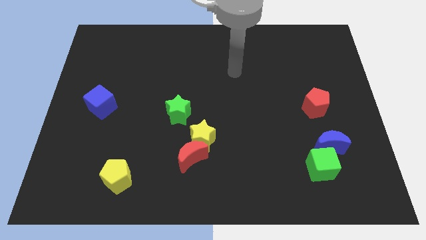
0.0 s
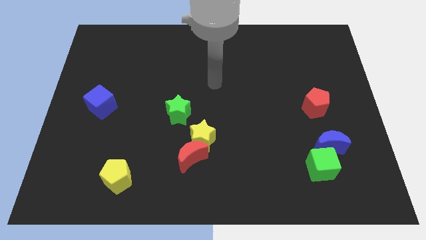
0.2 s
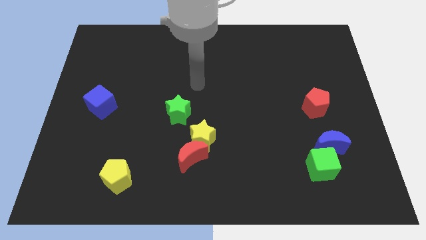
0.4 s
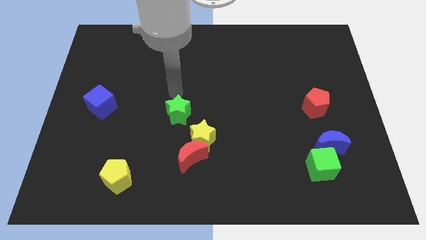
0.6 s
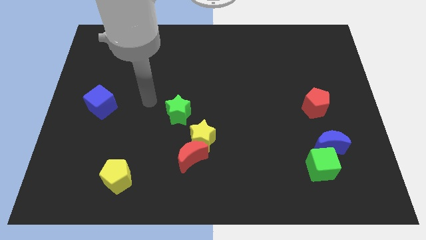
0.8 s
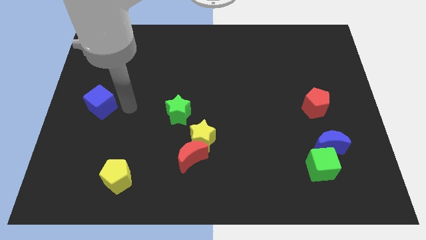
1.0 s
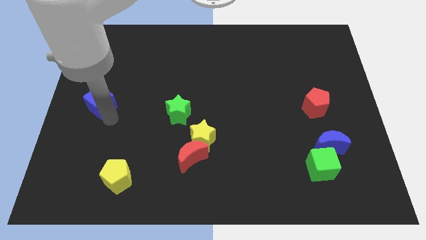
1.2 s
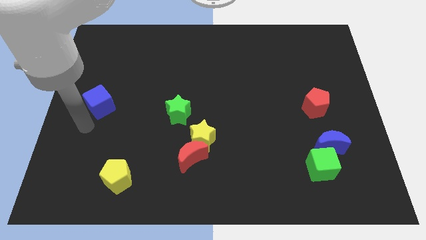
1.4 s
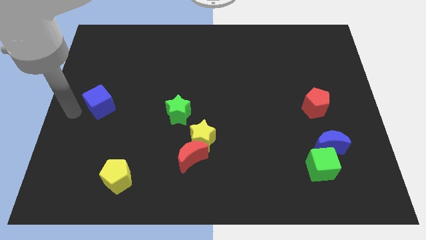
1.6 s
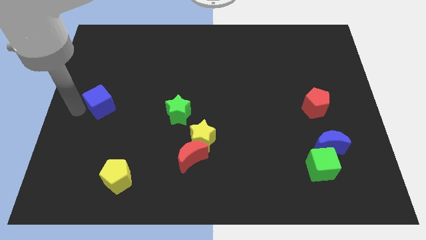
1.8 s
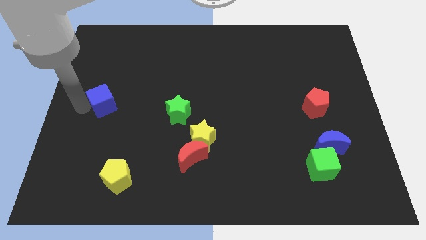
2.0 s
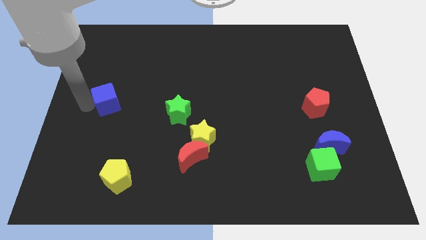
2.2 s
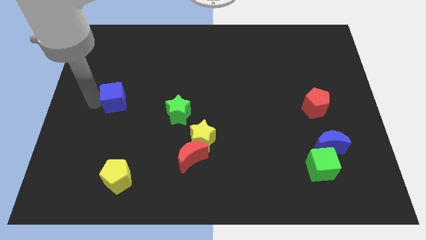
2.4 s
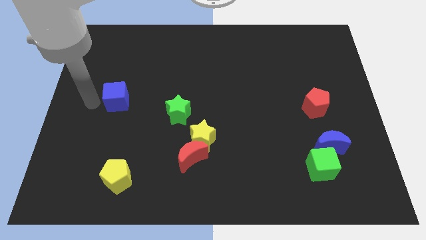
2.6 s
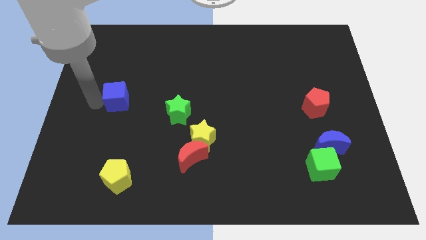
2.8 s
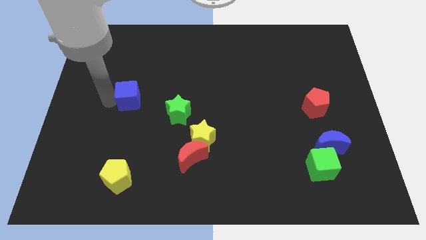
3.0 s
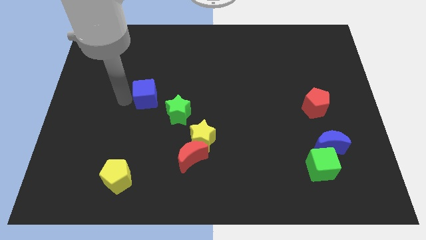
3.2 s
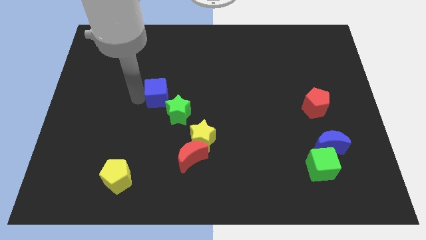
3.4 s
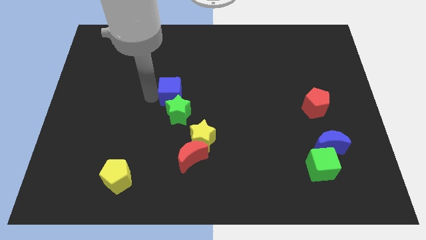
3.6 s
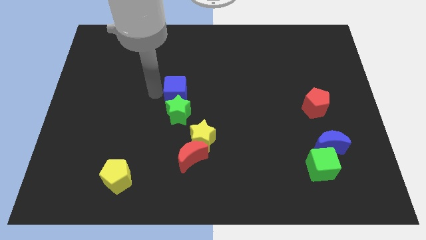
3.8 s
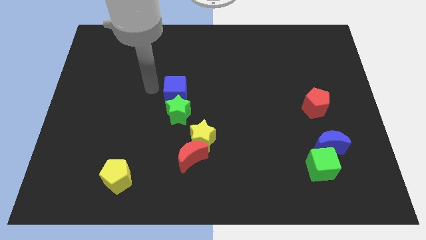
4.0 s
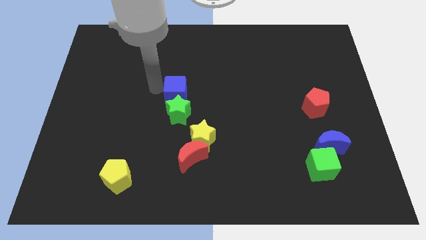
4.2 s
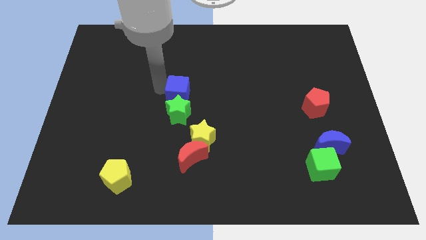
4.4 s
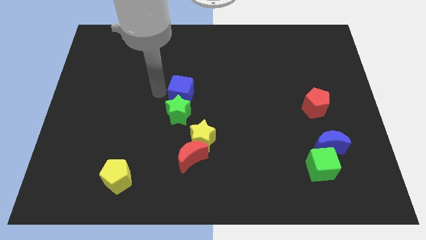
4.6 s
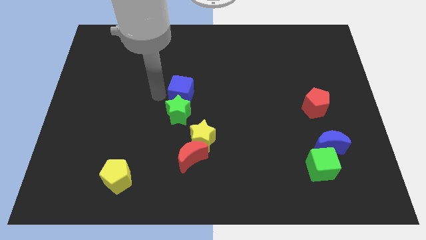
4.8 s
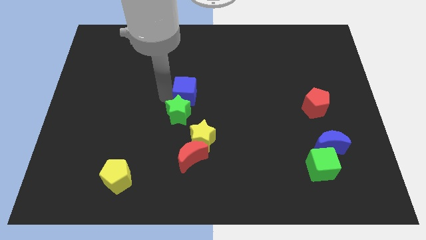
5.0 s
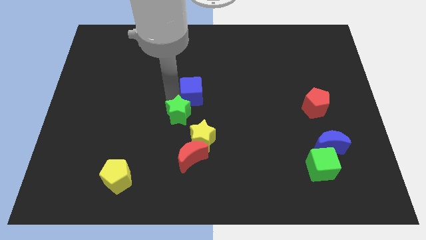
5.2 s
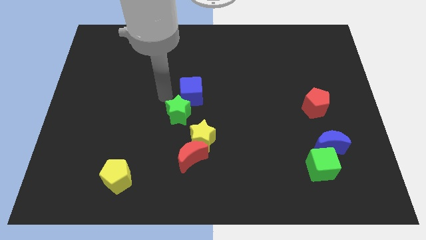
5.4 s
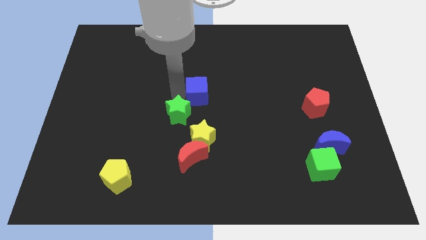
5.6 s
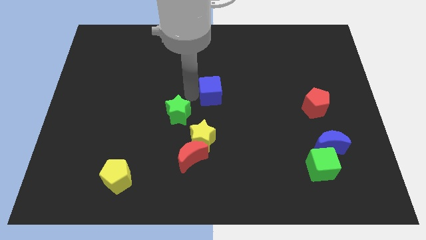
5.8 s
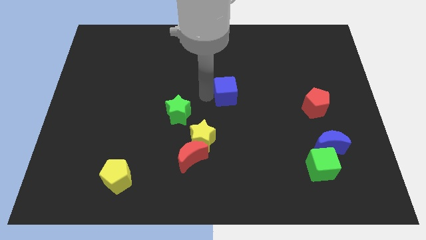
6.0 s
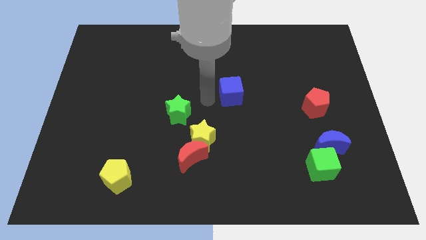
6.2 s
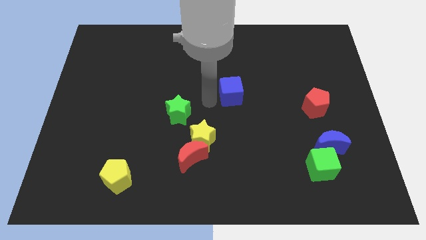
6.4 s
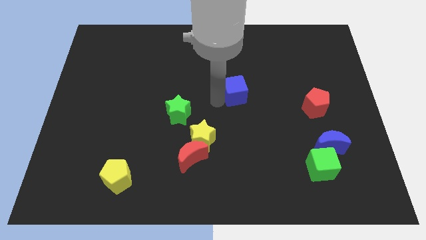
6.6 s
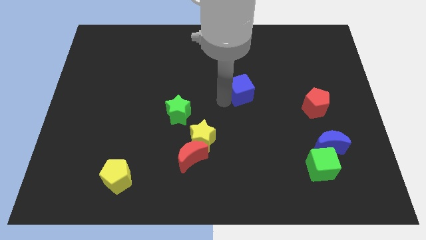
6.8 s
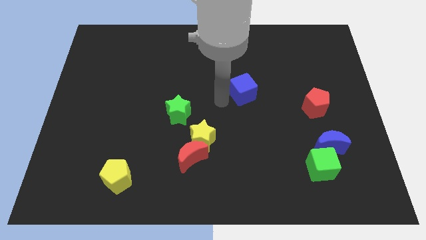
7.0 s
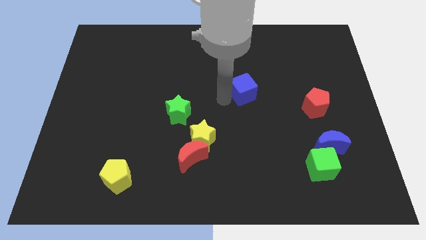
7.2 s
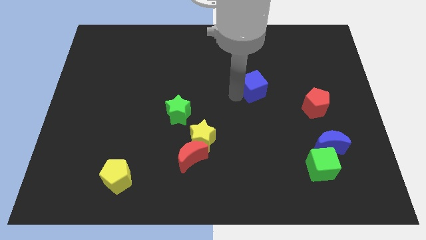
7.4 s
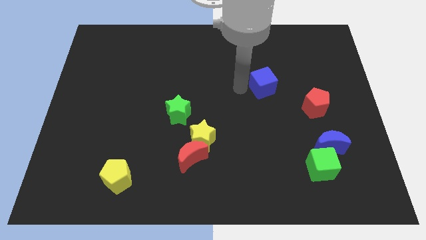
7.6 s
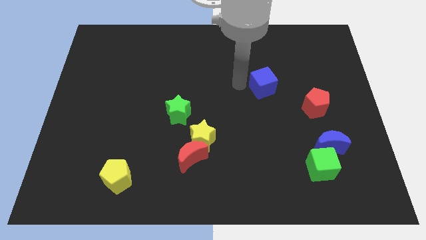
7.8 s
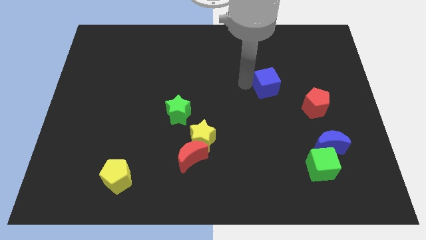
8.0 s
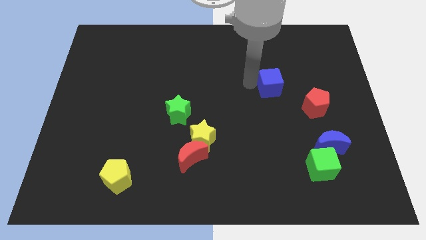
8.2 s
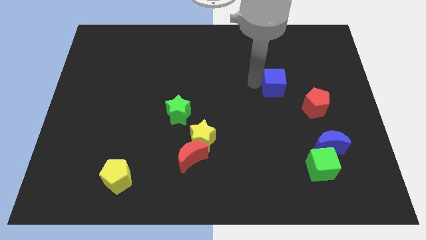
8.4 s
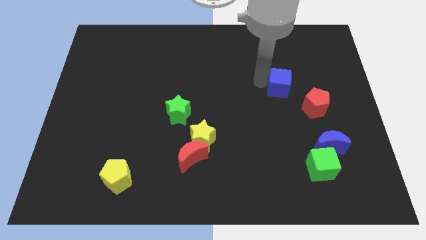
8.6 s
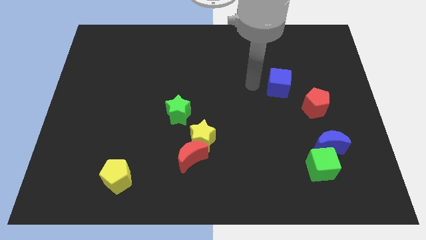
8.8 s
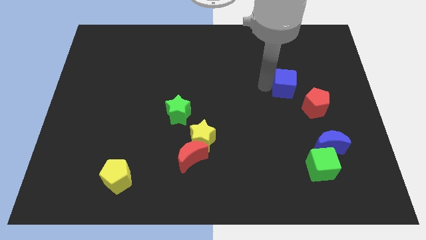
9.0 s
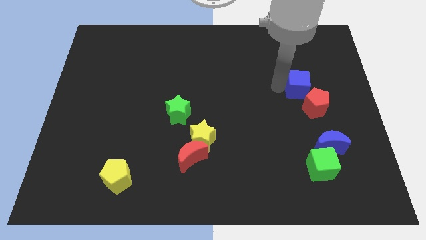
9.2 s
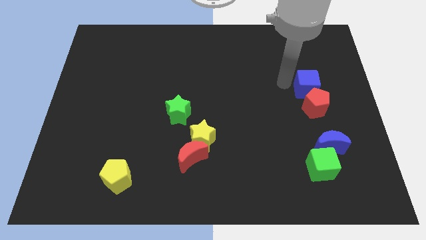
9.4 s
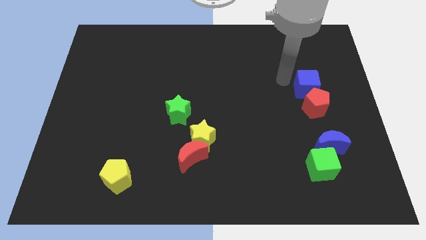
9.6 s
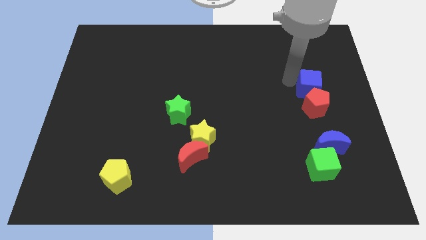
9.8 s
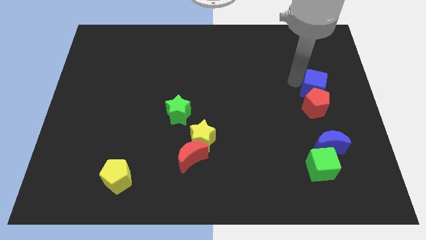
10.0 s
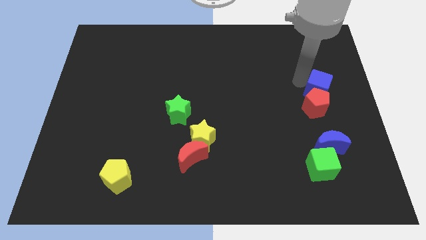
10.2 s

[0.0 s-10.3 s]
slide the blue cube to the right side of the board

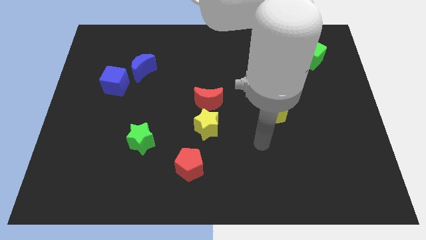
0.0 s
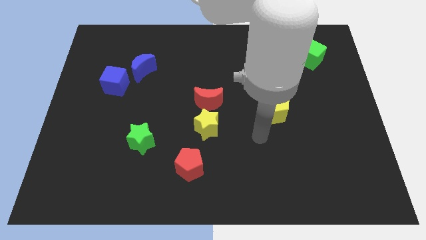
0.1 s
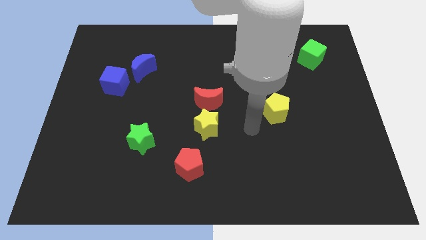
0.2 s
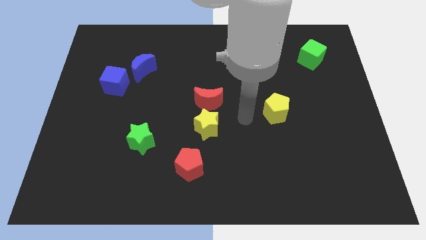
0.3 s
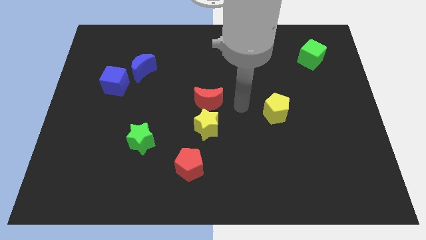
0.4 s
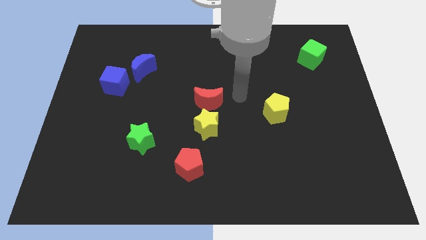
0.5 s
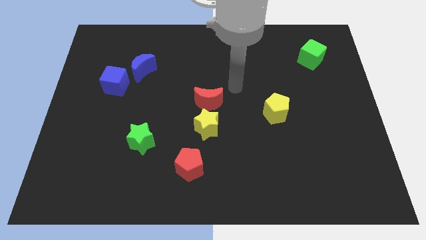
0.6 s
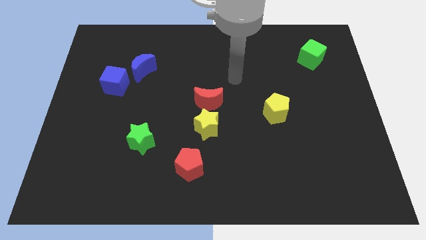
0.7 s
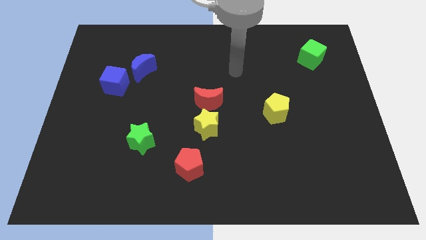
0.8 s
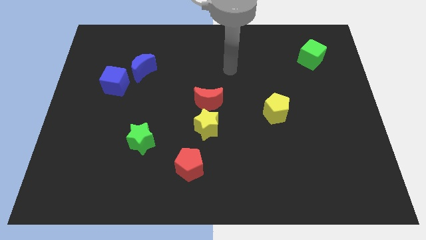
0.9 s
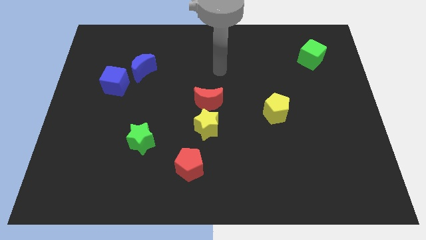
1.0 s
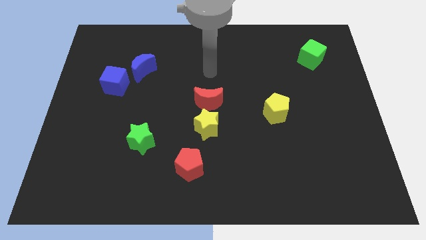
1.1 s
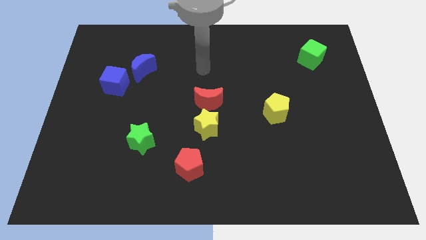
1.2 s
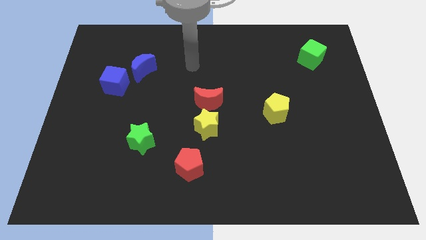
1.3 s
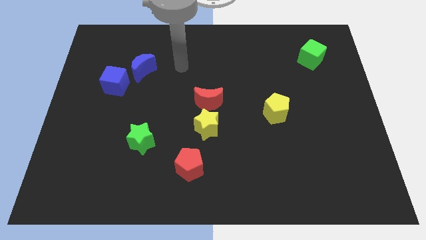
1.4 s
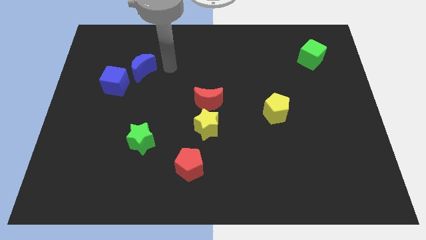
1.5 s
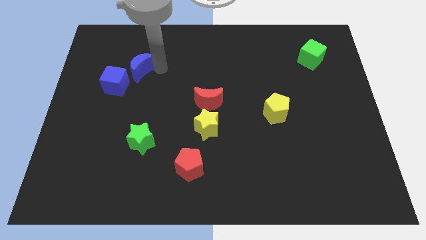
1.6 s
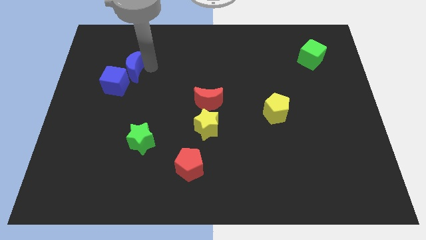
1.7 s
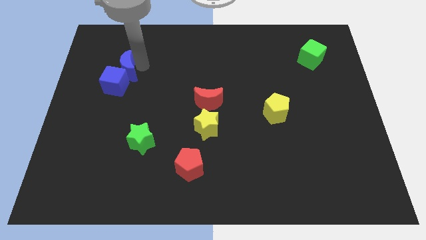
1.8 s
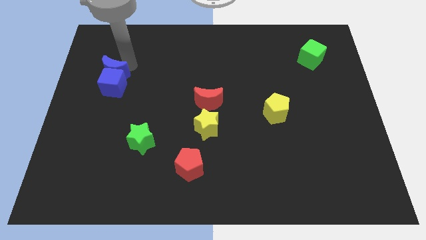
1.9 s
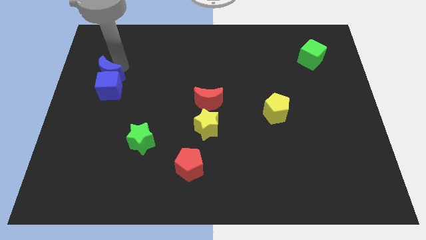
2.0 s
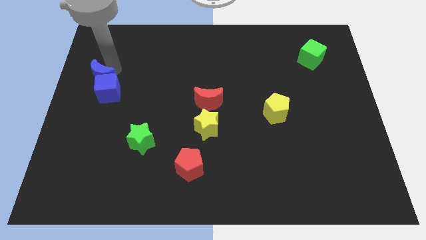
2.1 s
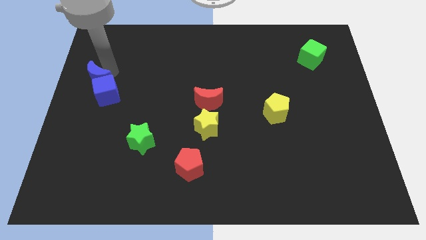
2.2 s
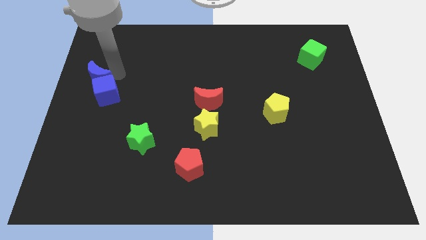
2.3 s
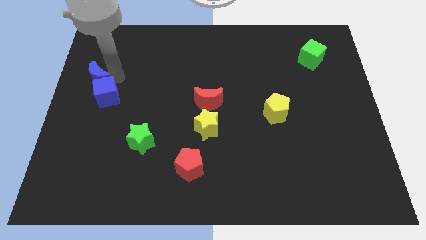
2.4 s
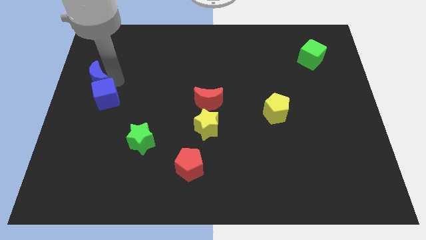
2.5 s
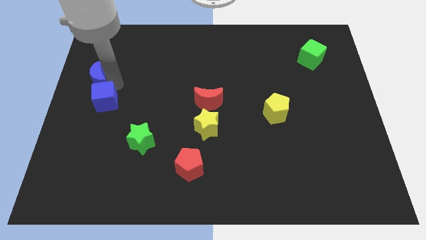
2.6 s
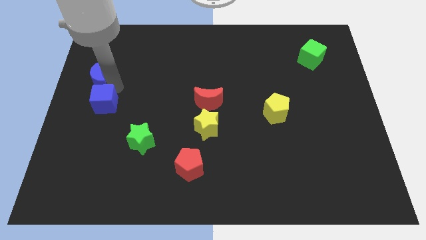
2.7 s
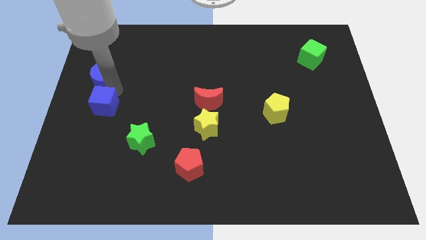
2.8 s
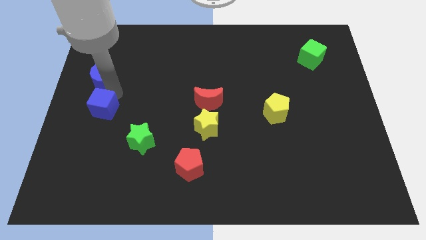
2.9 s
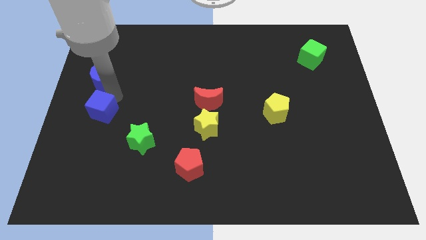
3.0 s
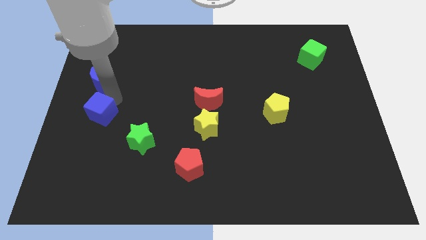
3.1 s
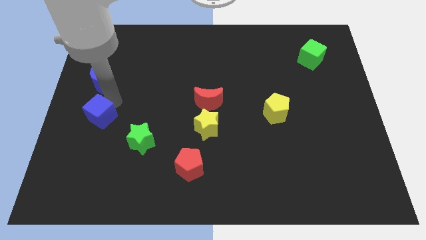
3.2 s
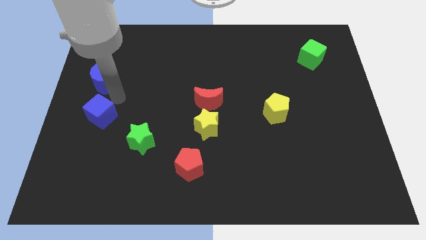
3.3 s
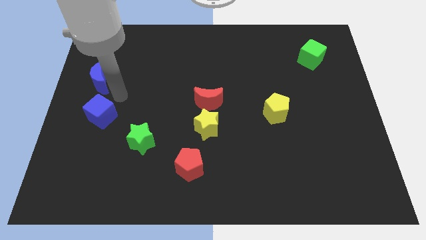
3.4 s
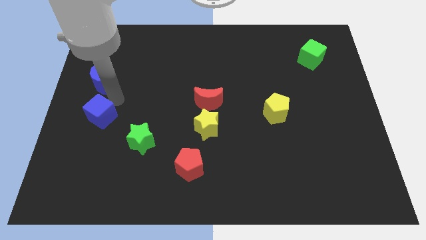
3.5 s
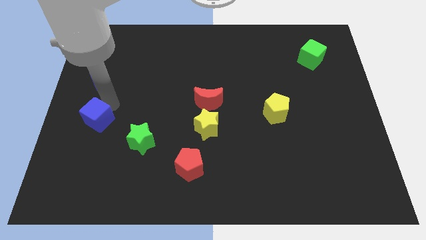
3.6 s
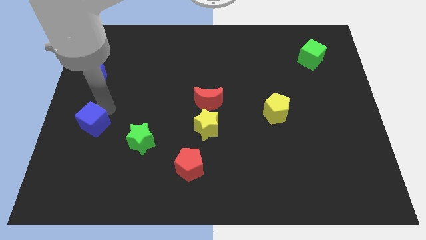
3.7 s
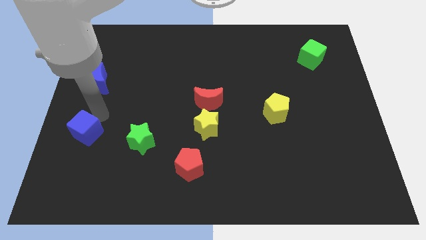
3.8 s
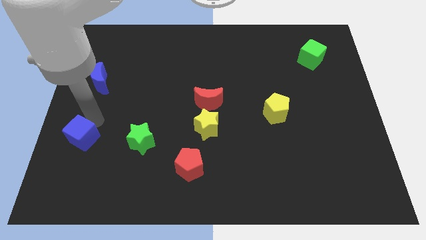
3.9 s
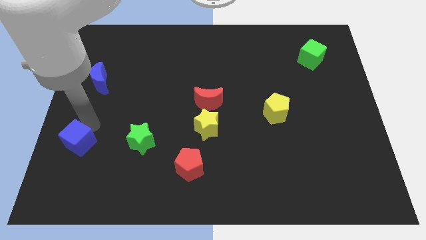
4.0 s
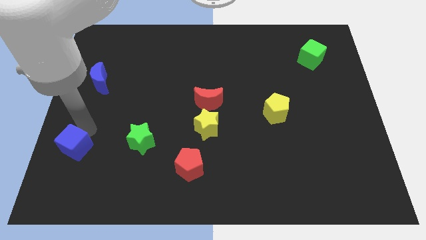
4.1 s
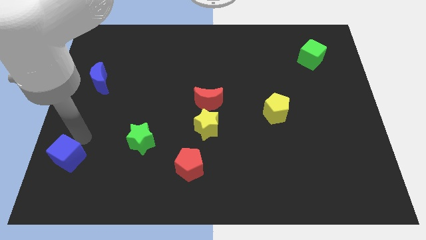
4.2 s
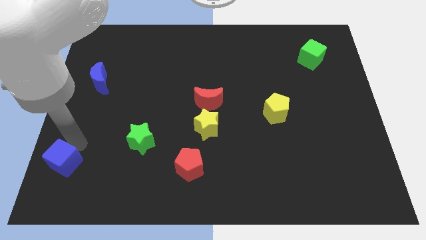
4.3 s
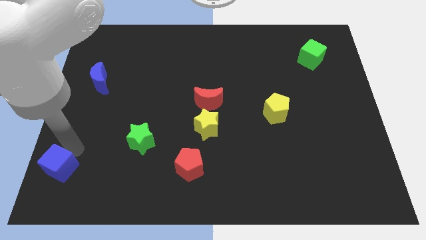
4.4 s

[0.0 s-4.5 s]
move the blue cube to the bottom left
